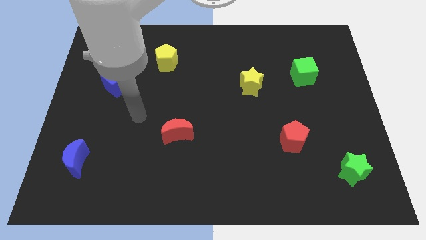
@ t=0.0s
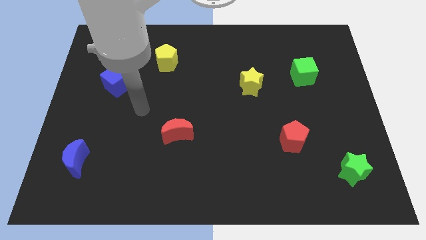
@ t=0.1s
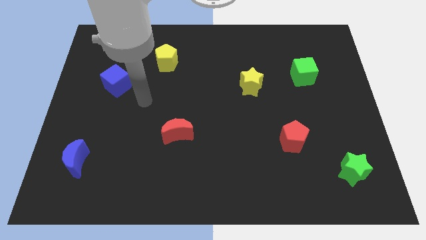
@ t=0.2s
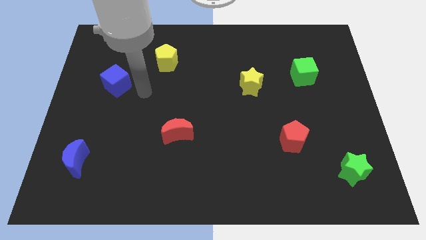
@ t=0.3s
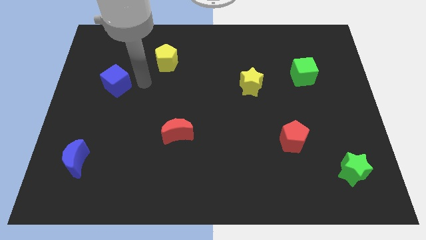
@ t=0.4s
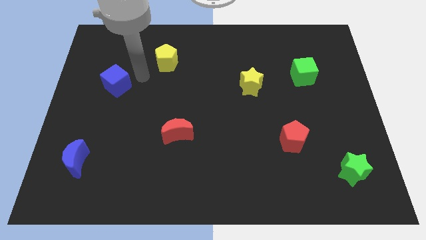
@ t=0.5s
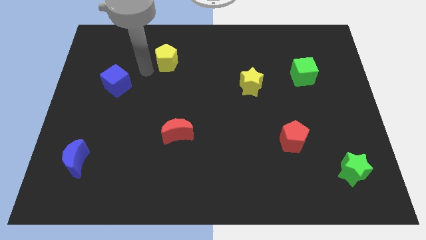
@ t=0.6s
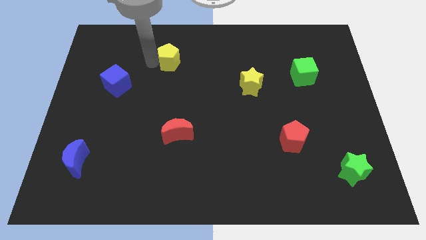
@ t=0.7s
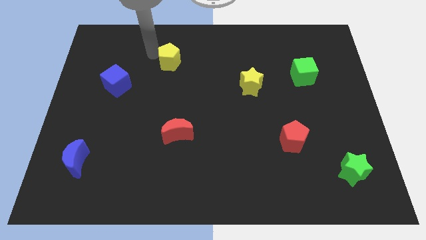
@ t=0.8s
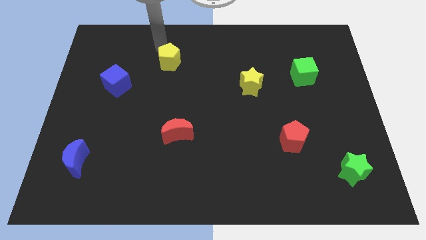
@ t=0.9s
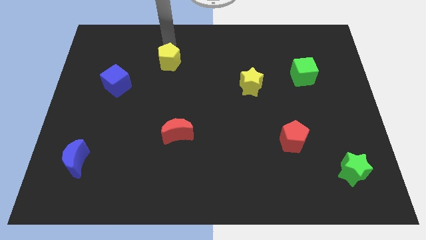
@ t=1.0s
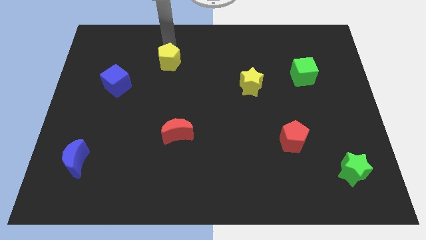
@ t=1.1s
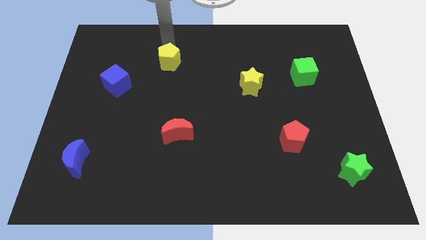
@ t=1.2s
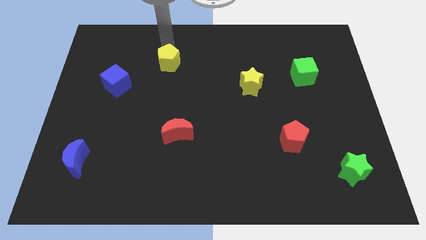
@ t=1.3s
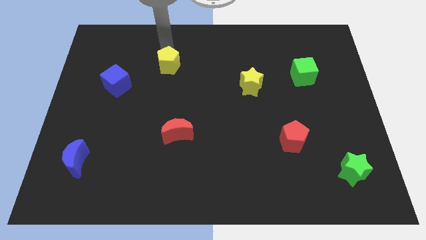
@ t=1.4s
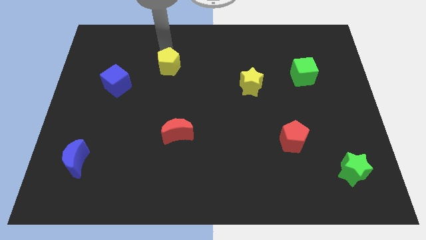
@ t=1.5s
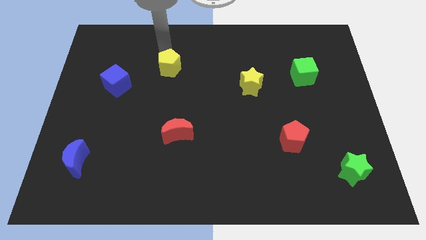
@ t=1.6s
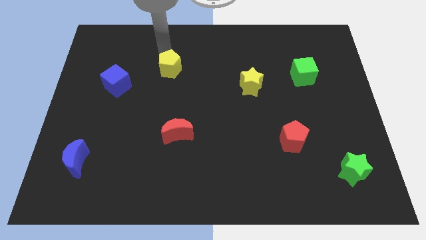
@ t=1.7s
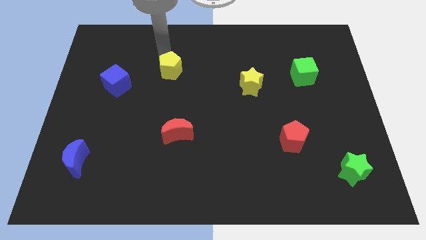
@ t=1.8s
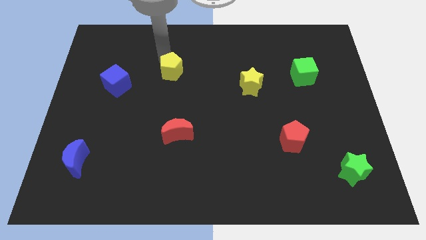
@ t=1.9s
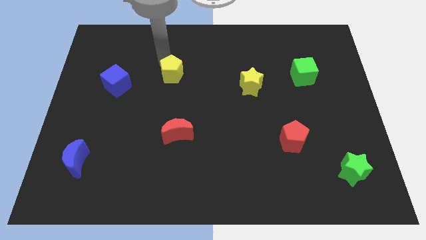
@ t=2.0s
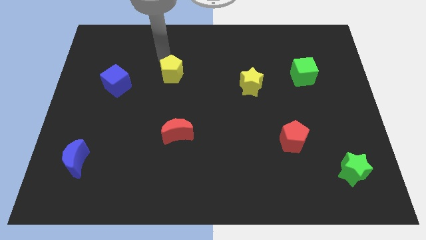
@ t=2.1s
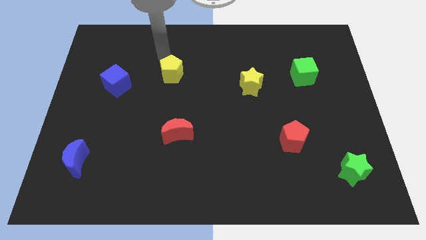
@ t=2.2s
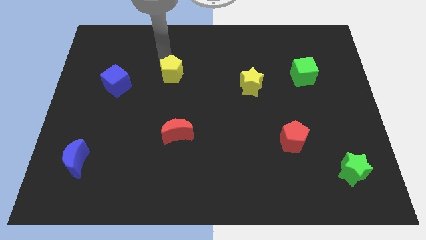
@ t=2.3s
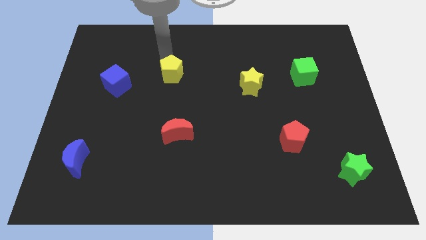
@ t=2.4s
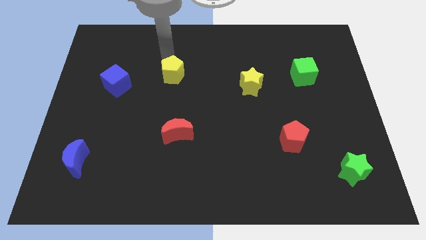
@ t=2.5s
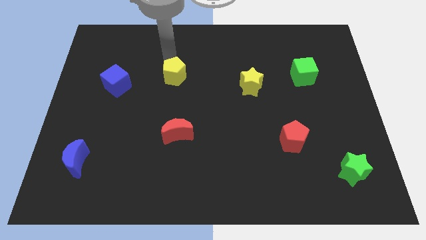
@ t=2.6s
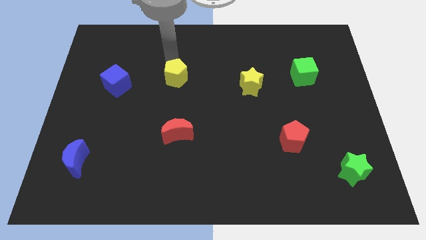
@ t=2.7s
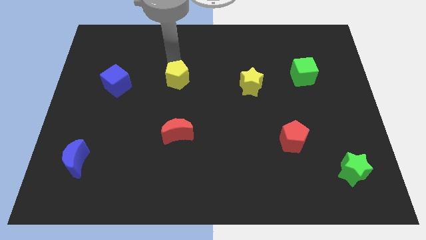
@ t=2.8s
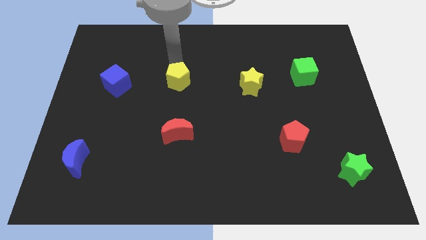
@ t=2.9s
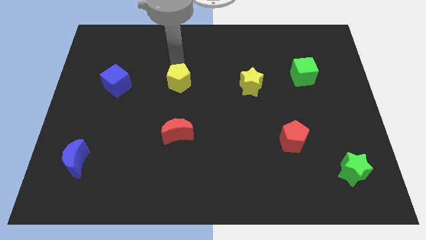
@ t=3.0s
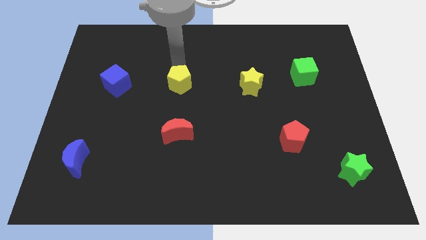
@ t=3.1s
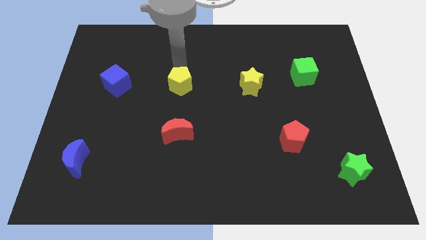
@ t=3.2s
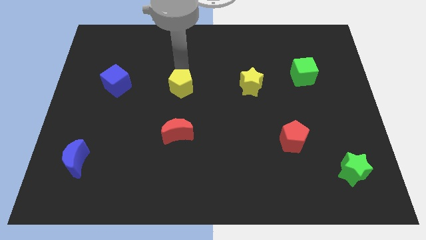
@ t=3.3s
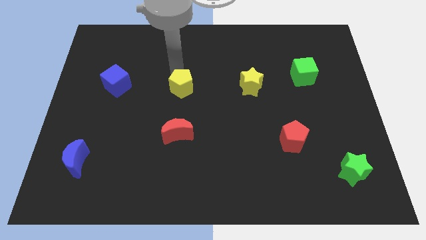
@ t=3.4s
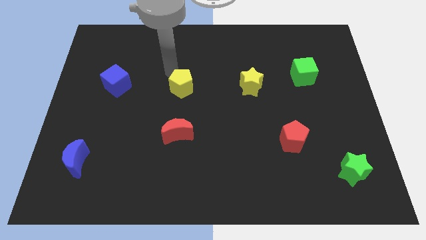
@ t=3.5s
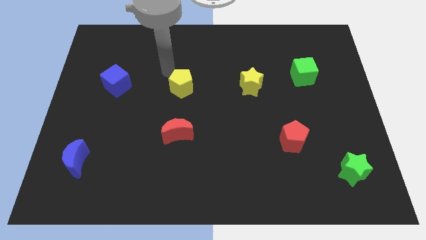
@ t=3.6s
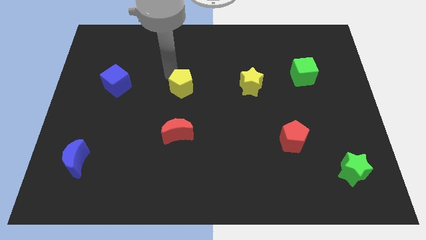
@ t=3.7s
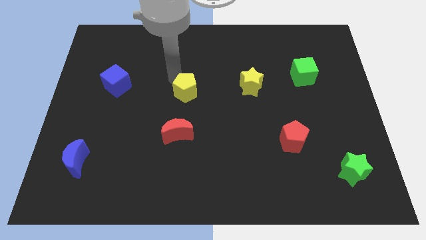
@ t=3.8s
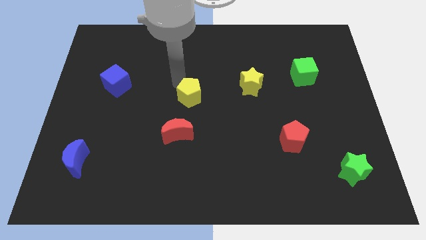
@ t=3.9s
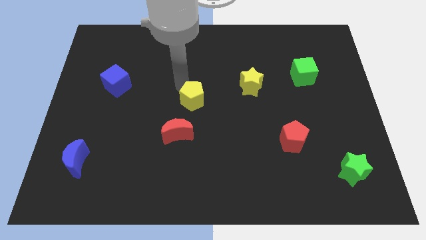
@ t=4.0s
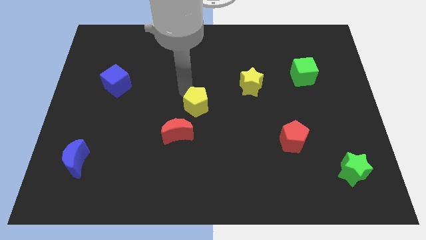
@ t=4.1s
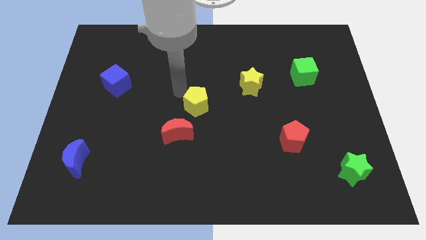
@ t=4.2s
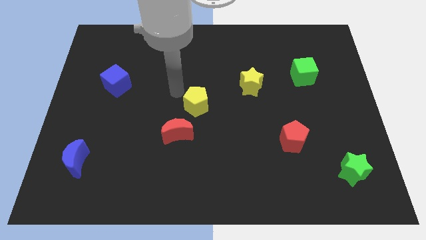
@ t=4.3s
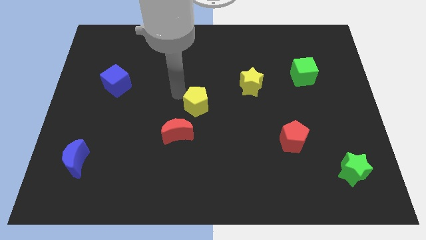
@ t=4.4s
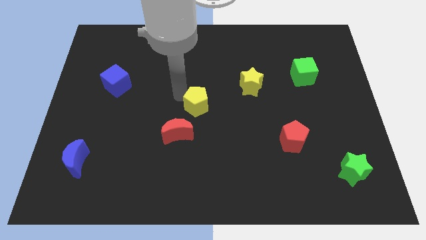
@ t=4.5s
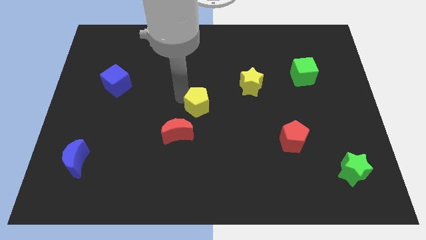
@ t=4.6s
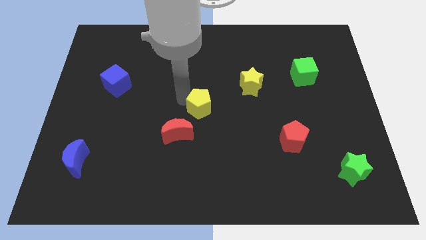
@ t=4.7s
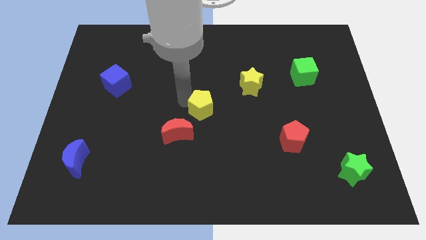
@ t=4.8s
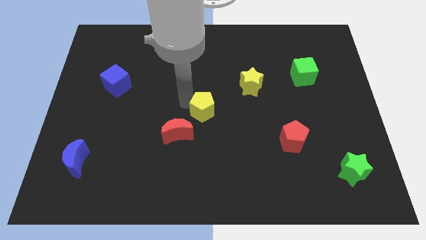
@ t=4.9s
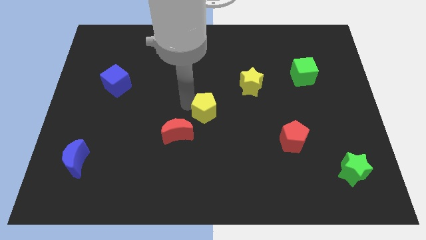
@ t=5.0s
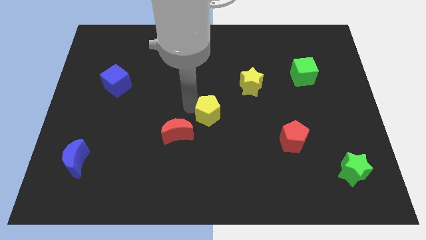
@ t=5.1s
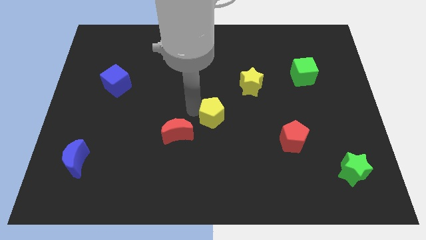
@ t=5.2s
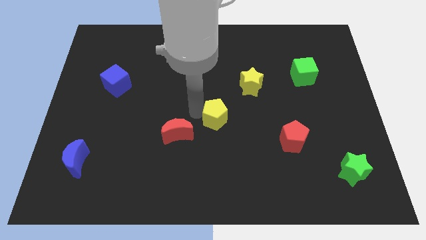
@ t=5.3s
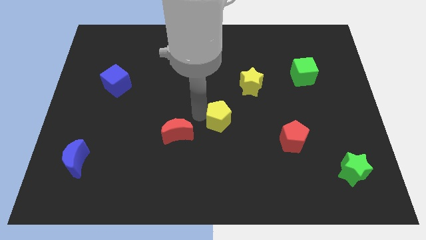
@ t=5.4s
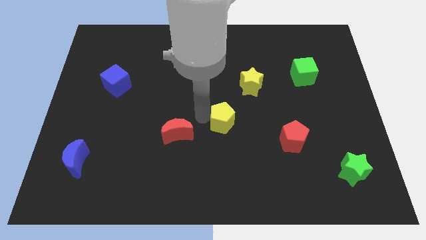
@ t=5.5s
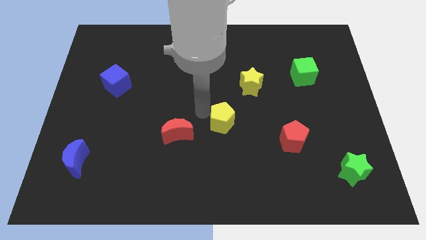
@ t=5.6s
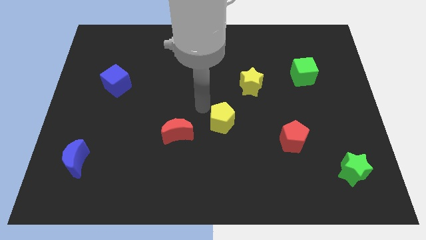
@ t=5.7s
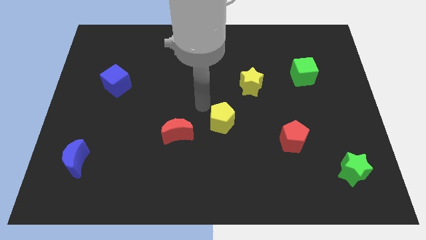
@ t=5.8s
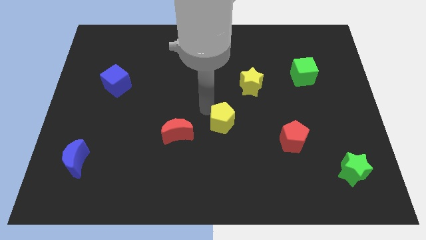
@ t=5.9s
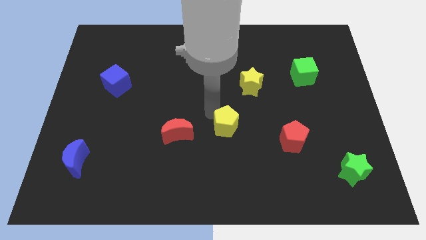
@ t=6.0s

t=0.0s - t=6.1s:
put the yellow pentagon to the left of the red pentagon
